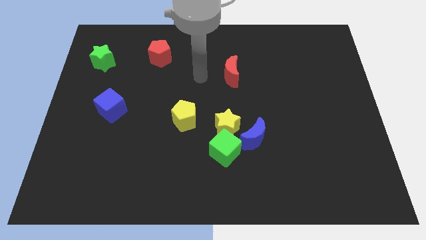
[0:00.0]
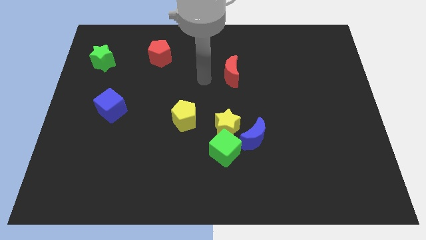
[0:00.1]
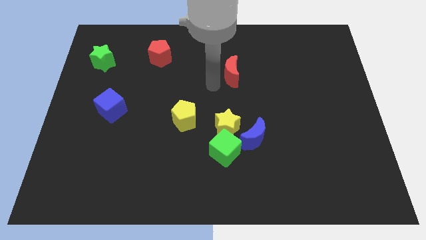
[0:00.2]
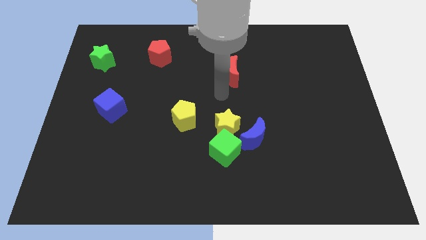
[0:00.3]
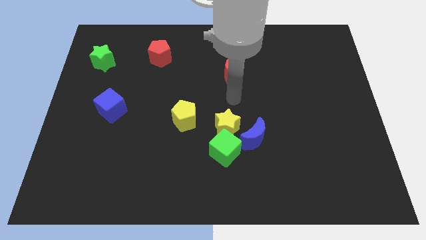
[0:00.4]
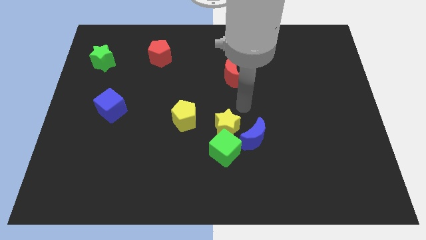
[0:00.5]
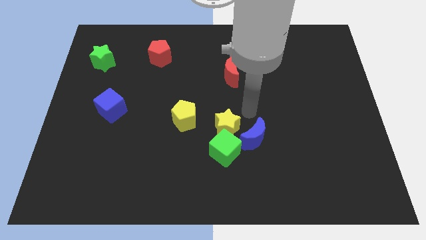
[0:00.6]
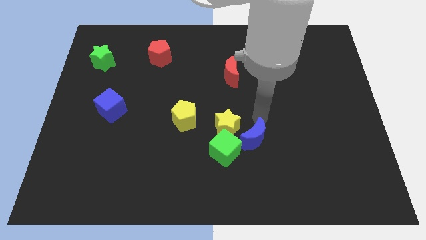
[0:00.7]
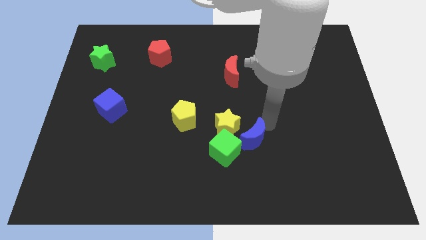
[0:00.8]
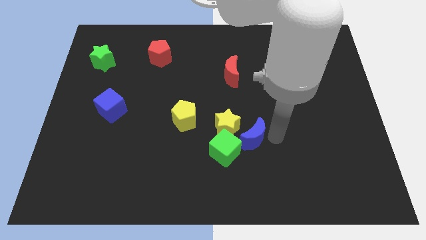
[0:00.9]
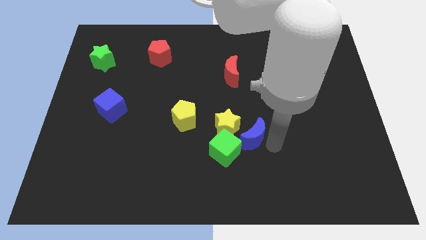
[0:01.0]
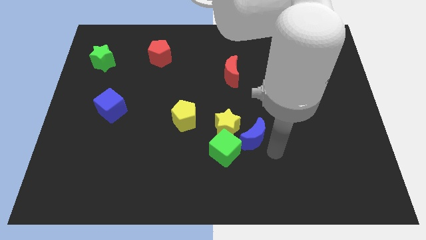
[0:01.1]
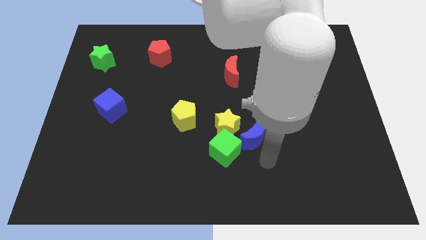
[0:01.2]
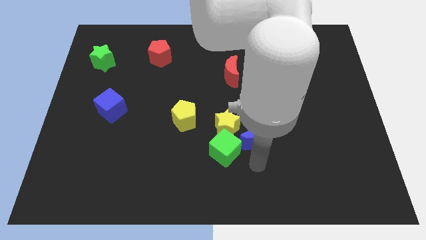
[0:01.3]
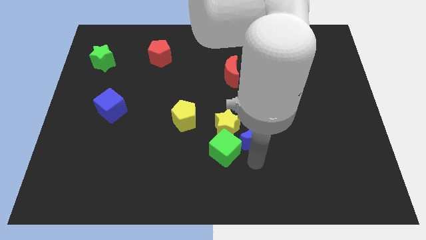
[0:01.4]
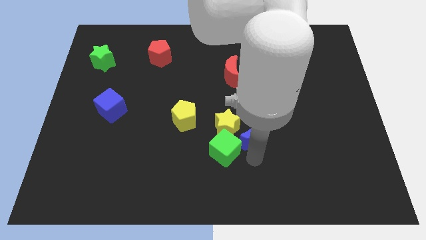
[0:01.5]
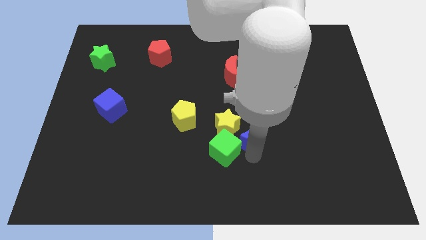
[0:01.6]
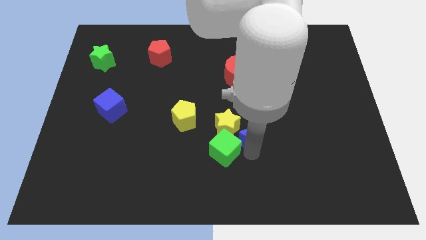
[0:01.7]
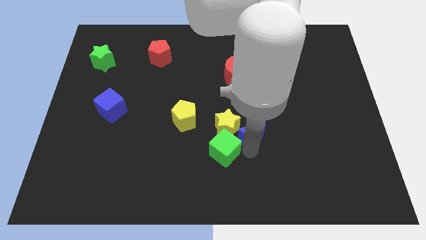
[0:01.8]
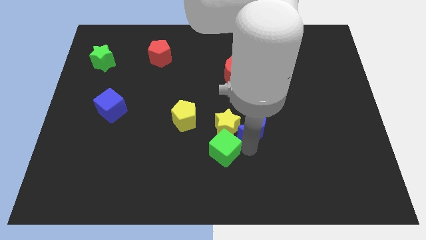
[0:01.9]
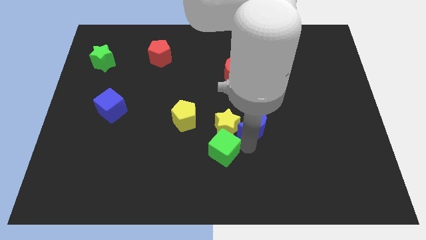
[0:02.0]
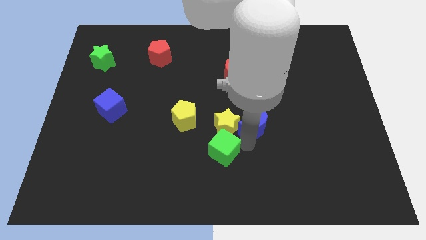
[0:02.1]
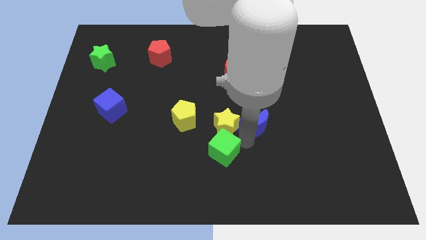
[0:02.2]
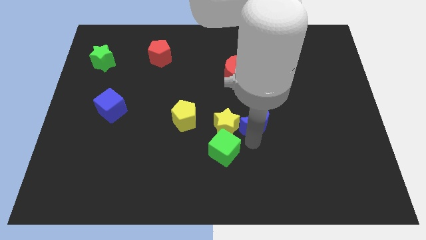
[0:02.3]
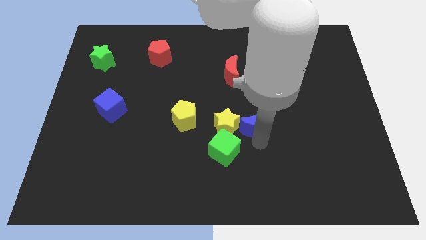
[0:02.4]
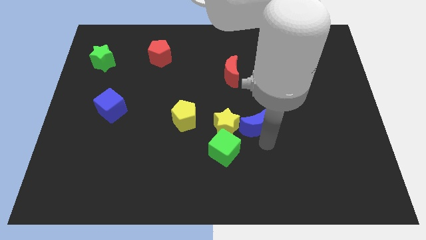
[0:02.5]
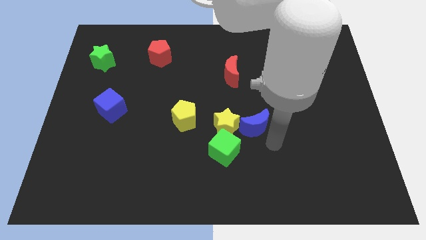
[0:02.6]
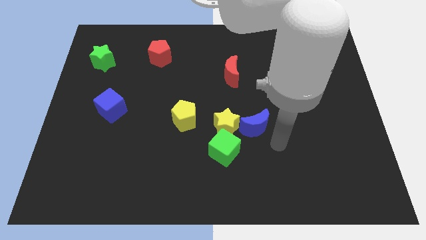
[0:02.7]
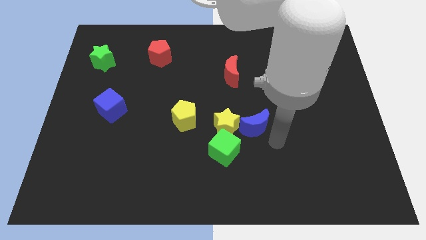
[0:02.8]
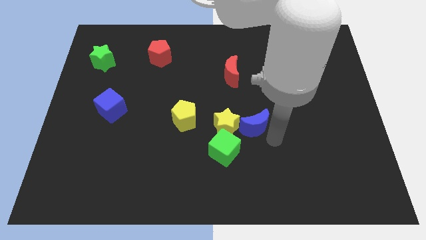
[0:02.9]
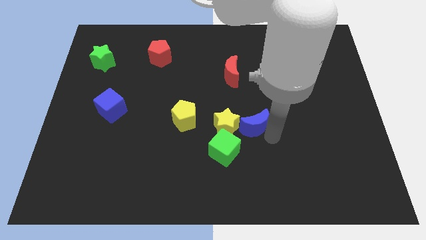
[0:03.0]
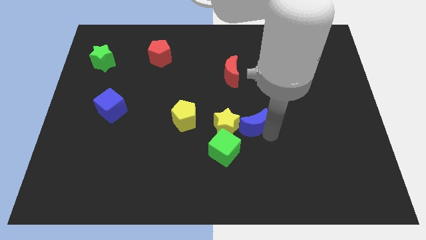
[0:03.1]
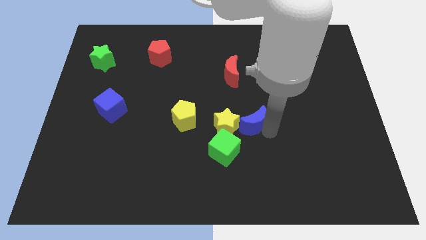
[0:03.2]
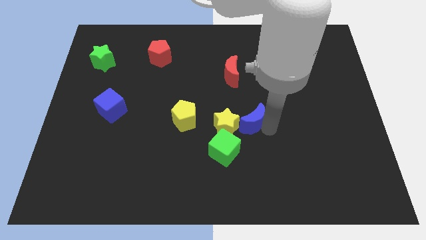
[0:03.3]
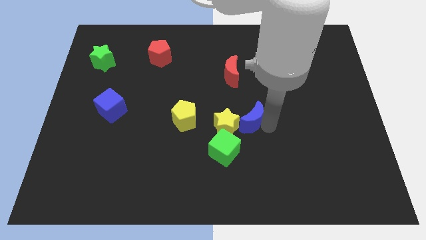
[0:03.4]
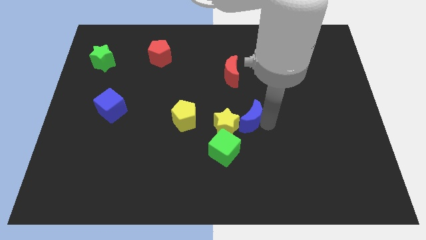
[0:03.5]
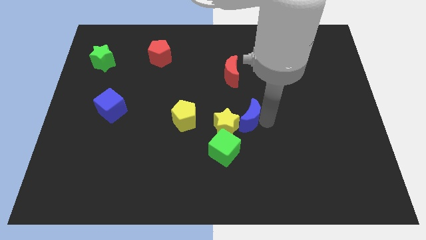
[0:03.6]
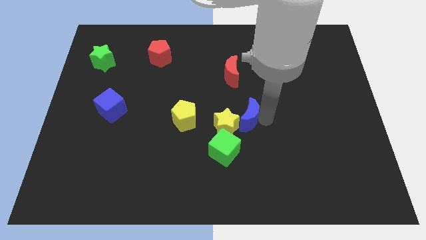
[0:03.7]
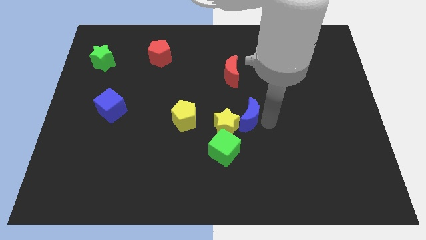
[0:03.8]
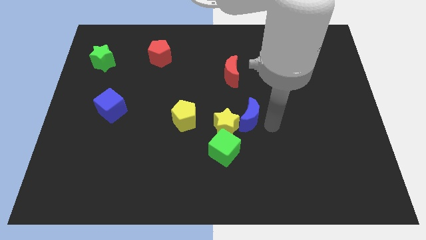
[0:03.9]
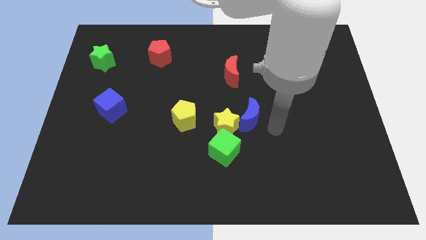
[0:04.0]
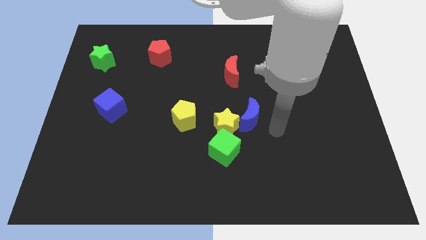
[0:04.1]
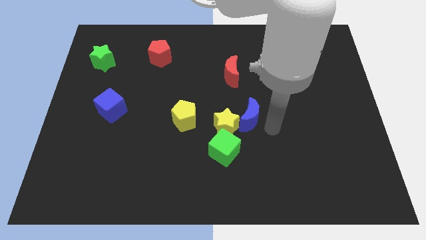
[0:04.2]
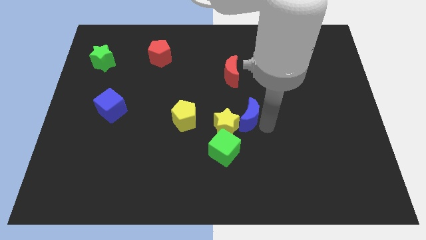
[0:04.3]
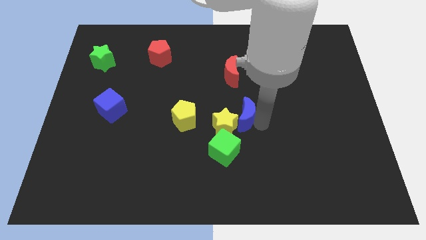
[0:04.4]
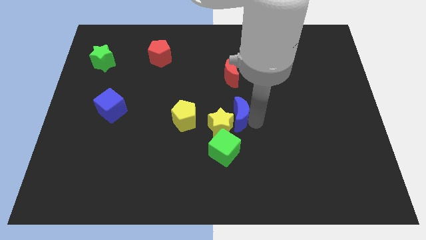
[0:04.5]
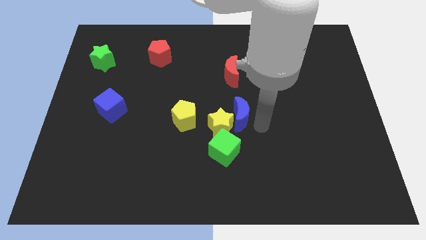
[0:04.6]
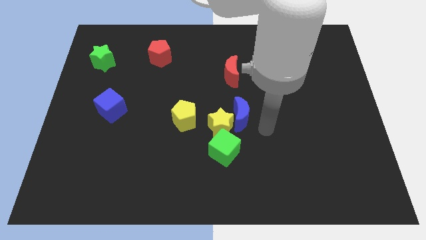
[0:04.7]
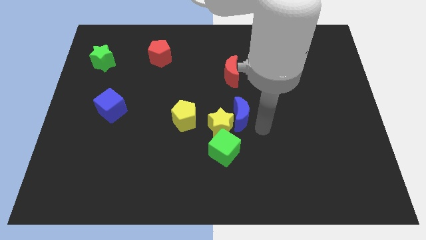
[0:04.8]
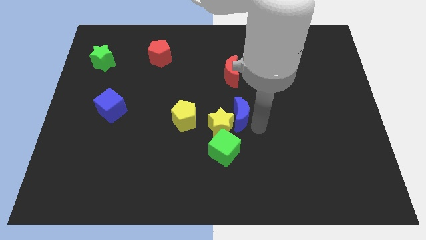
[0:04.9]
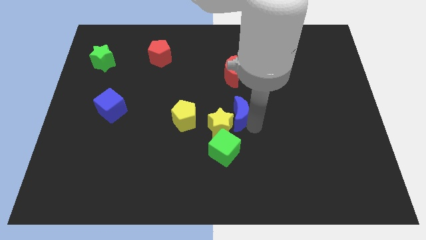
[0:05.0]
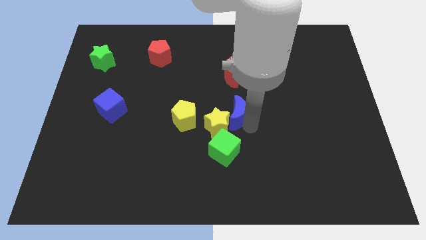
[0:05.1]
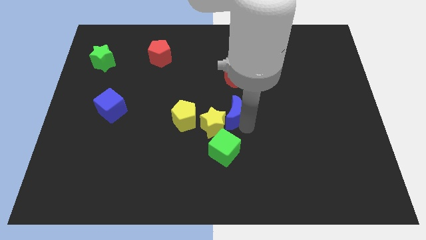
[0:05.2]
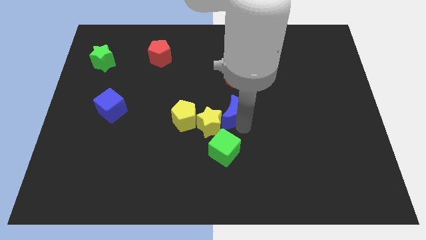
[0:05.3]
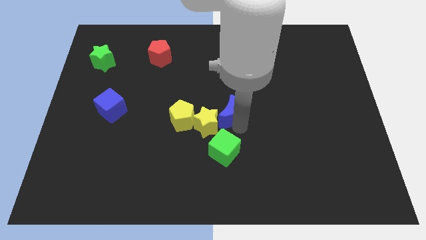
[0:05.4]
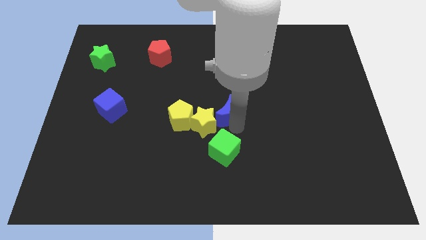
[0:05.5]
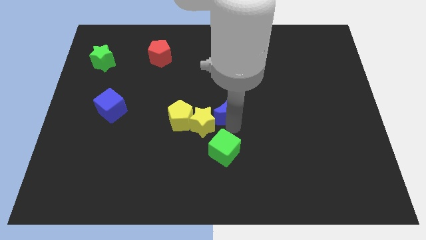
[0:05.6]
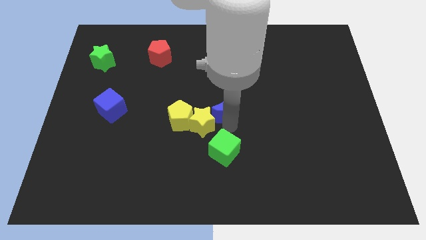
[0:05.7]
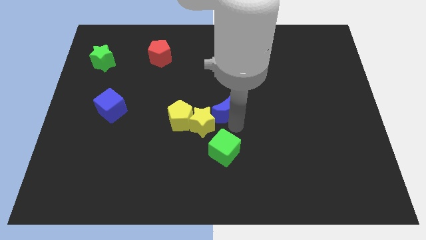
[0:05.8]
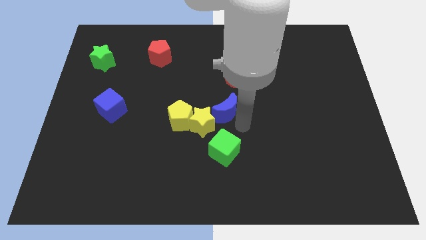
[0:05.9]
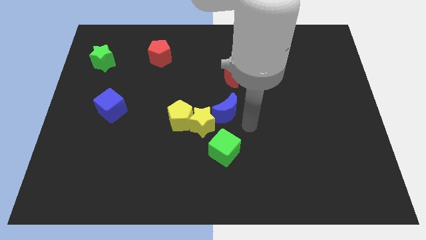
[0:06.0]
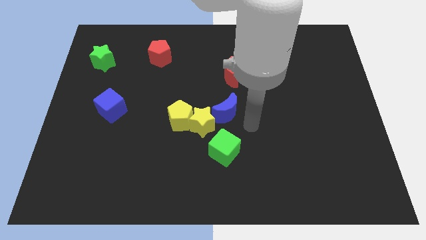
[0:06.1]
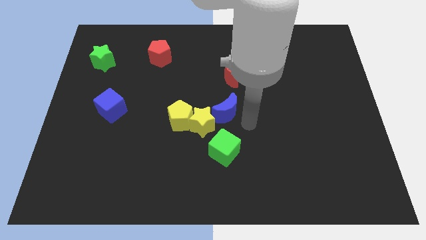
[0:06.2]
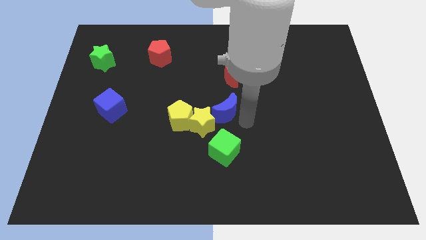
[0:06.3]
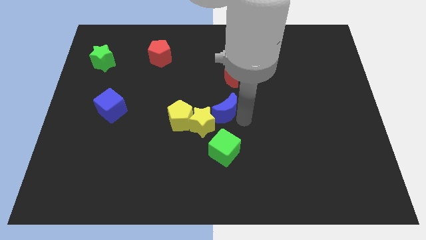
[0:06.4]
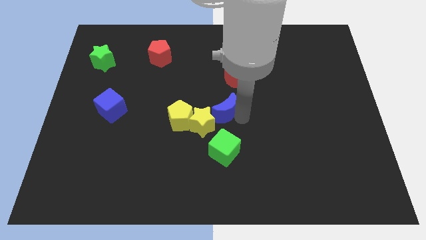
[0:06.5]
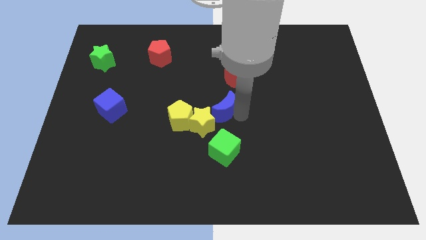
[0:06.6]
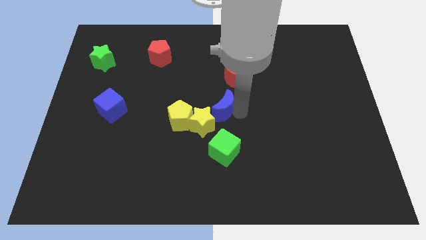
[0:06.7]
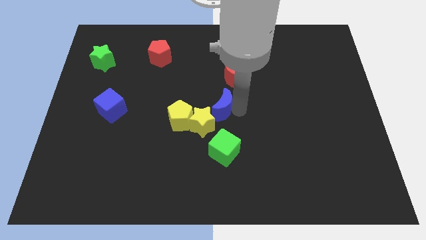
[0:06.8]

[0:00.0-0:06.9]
move the blue moon to the top right side of the yellow pentagon
